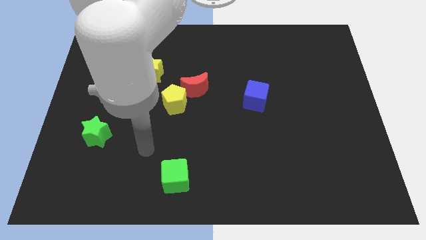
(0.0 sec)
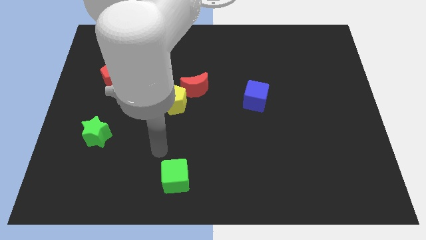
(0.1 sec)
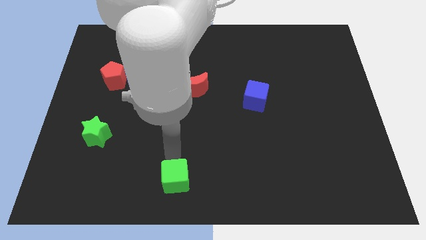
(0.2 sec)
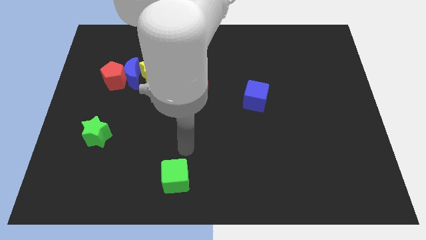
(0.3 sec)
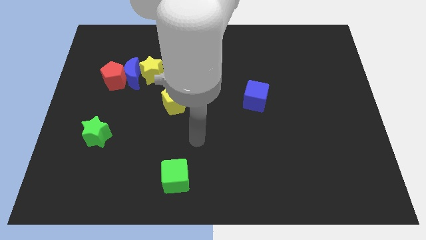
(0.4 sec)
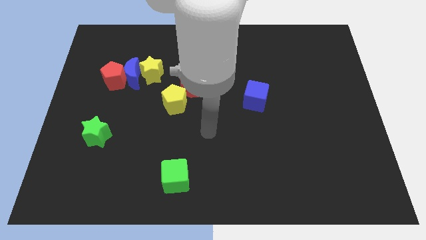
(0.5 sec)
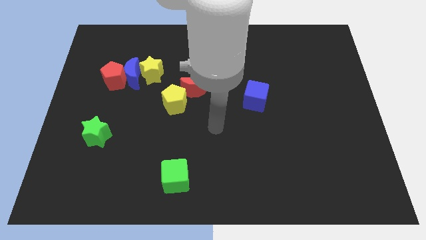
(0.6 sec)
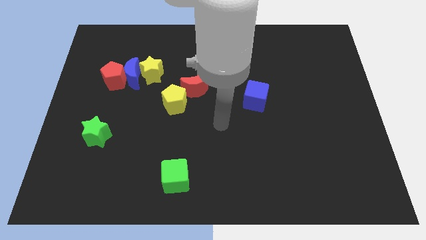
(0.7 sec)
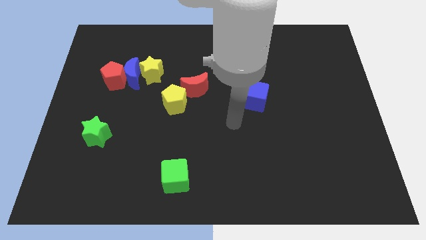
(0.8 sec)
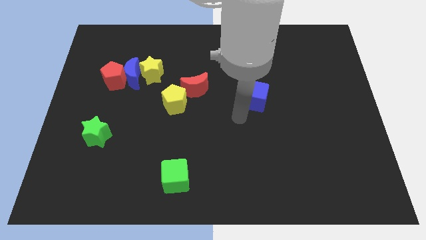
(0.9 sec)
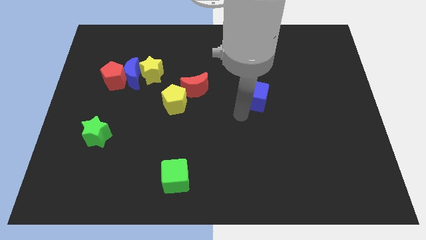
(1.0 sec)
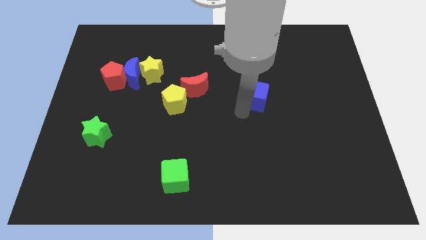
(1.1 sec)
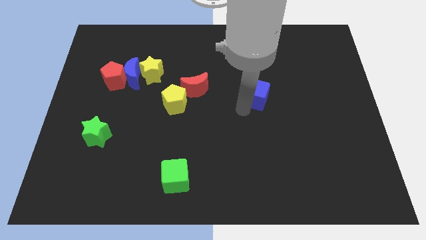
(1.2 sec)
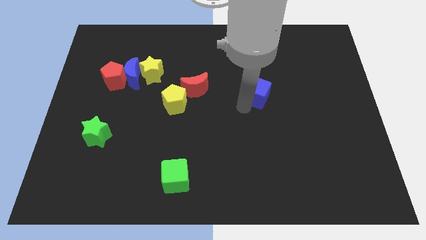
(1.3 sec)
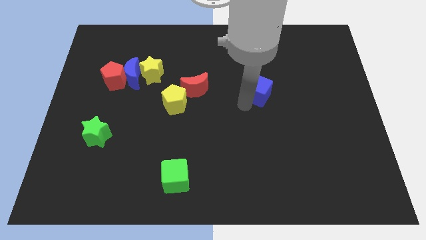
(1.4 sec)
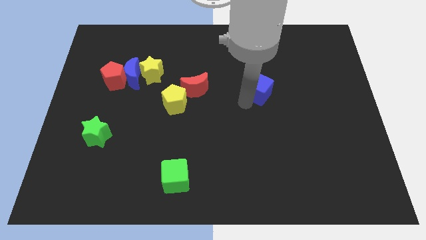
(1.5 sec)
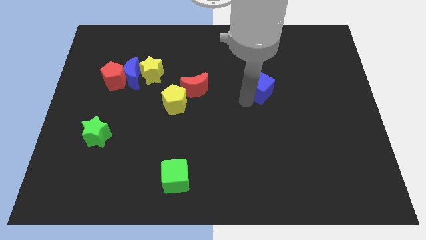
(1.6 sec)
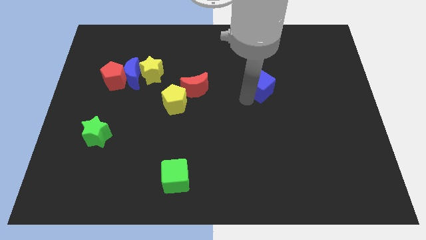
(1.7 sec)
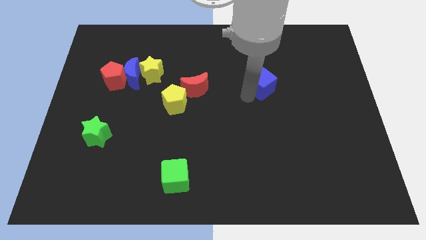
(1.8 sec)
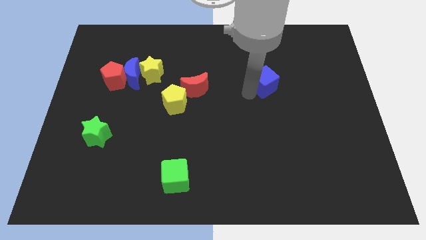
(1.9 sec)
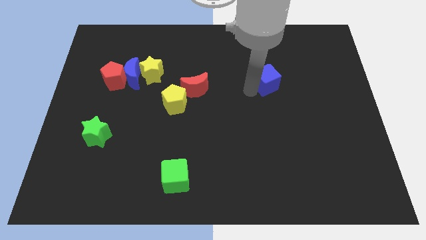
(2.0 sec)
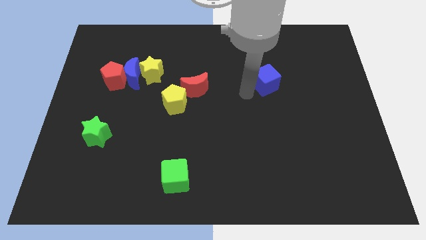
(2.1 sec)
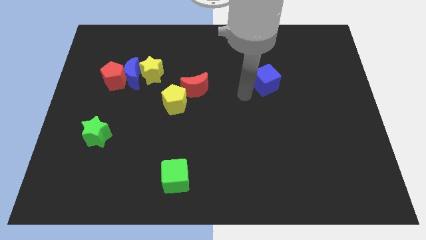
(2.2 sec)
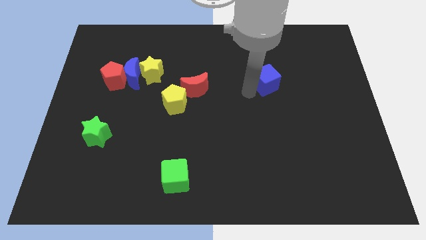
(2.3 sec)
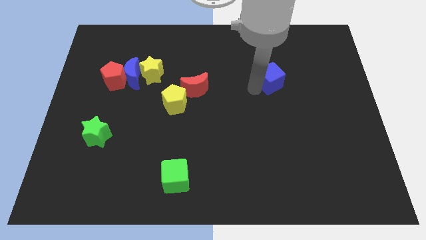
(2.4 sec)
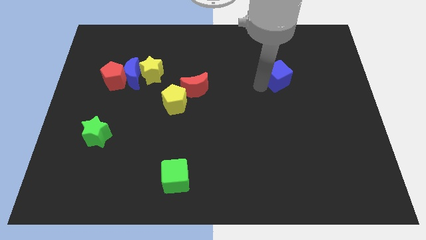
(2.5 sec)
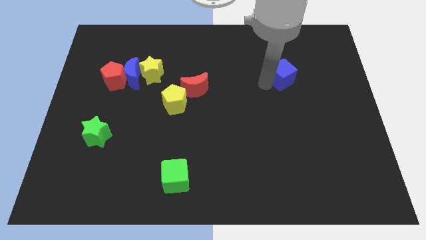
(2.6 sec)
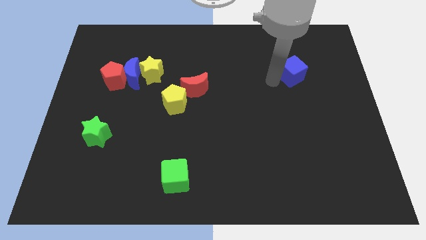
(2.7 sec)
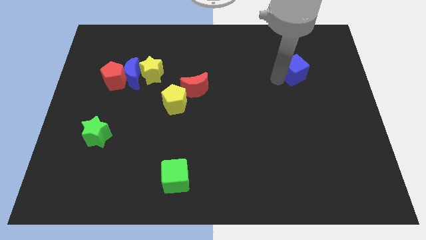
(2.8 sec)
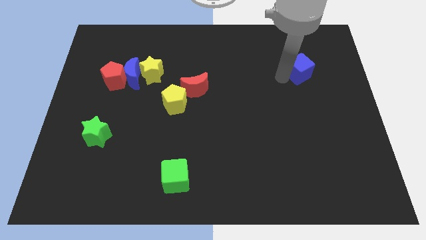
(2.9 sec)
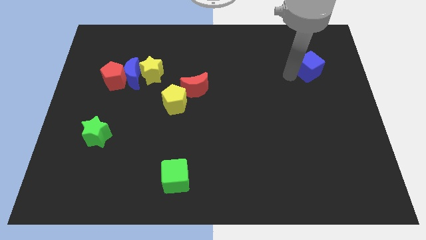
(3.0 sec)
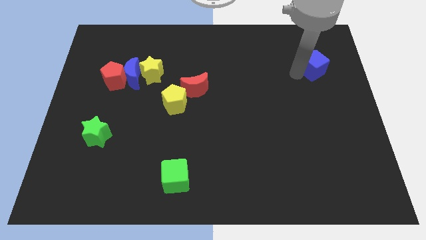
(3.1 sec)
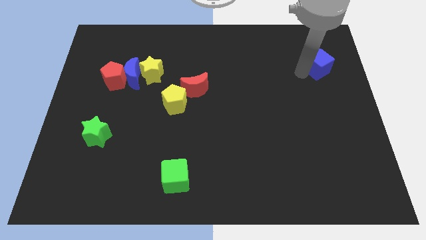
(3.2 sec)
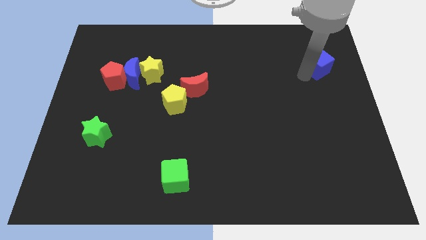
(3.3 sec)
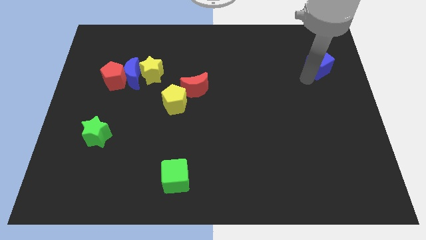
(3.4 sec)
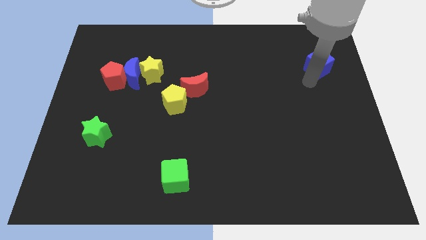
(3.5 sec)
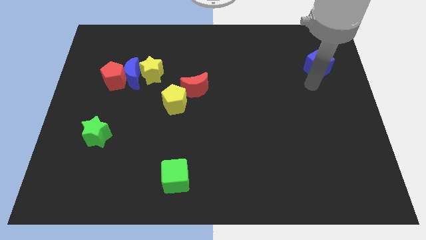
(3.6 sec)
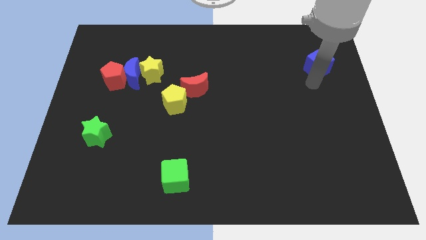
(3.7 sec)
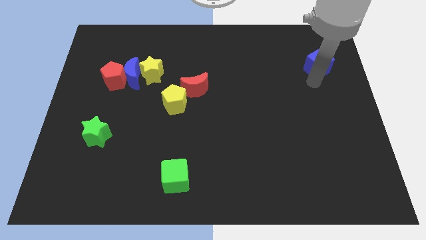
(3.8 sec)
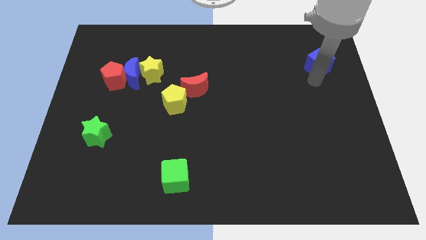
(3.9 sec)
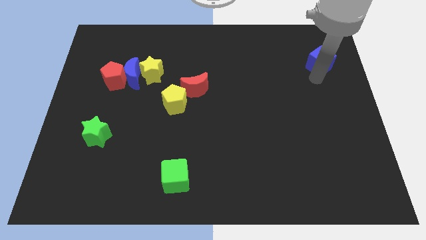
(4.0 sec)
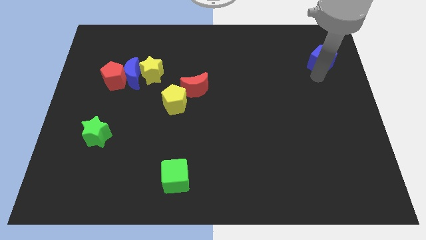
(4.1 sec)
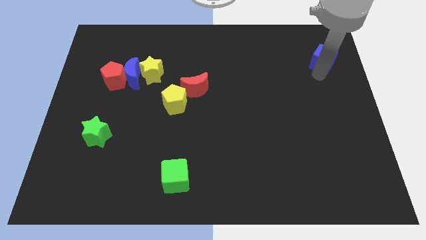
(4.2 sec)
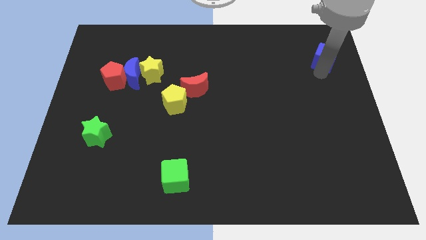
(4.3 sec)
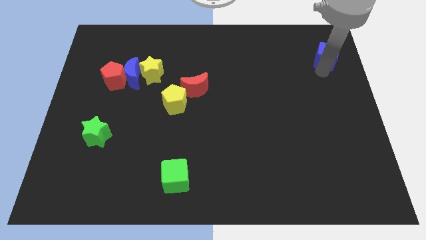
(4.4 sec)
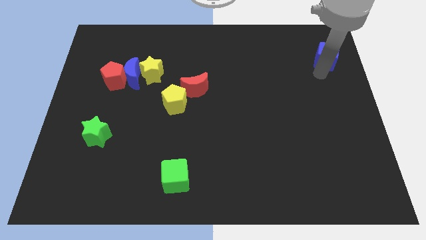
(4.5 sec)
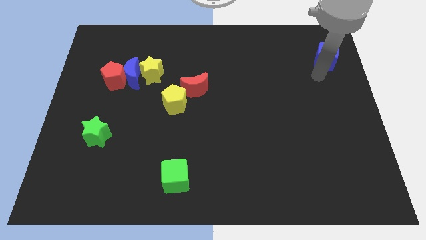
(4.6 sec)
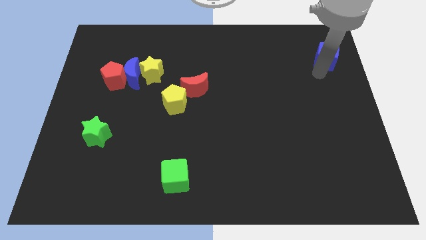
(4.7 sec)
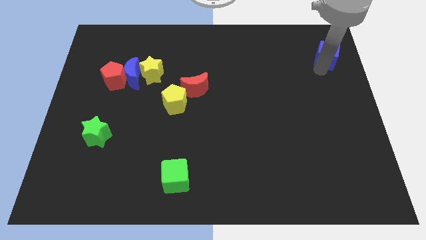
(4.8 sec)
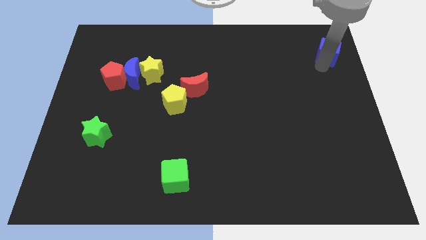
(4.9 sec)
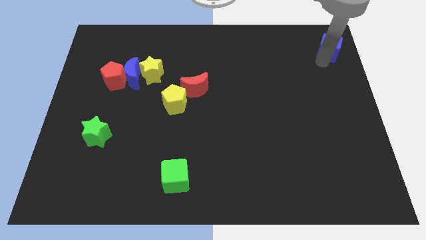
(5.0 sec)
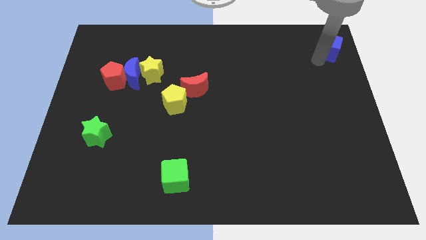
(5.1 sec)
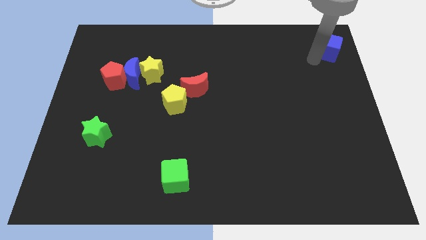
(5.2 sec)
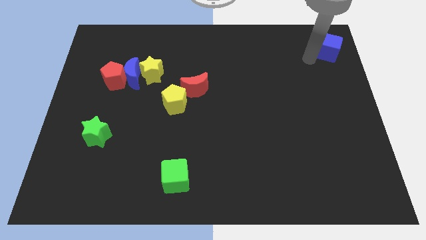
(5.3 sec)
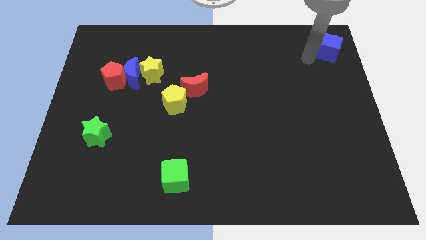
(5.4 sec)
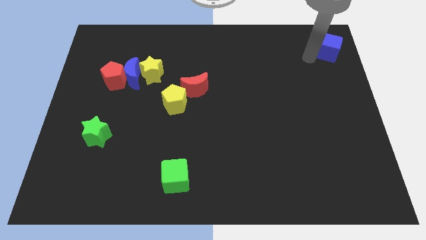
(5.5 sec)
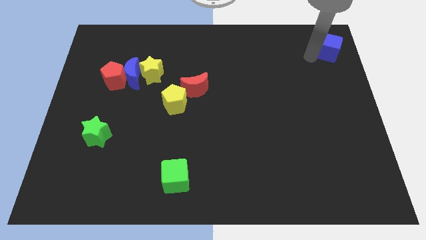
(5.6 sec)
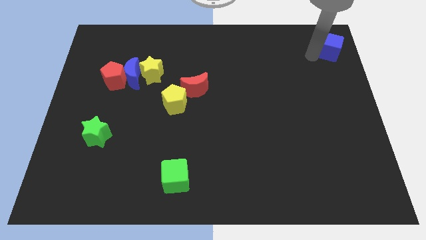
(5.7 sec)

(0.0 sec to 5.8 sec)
move the blue cube to the top right of the board
